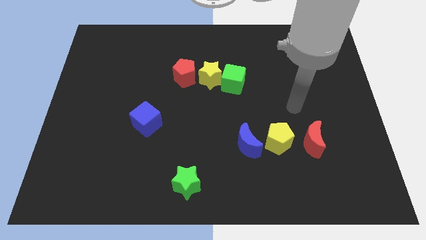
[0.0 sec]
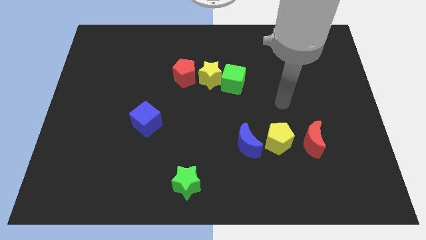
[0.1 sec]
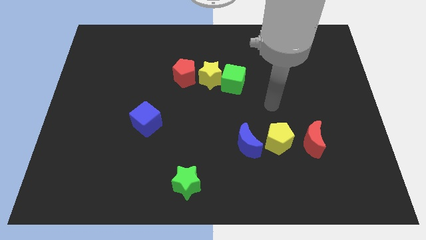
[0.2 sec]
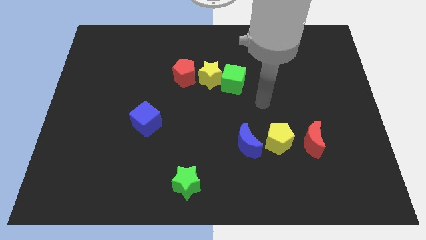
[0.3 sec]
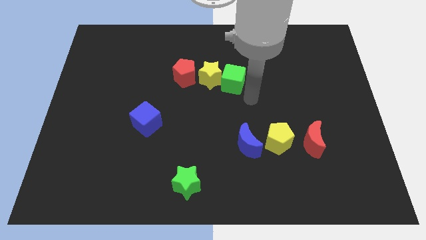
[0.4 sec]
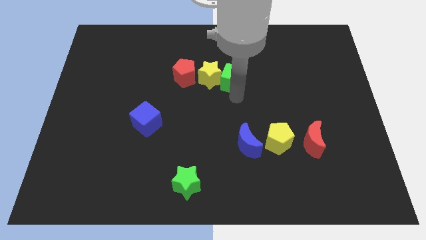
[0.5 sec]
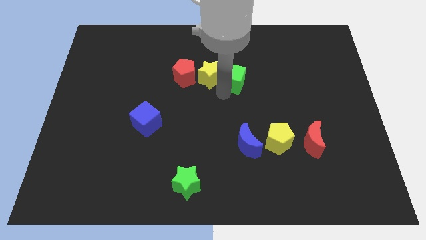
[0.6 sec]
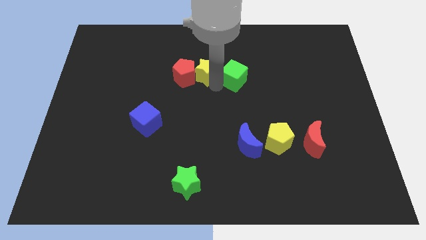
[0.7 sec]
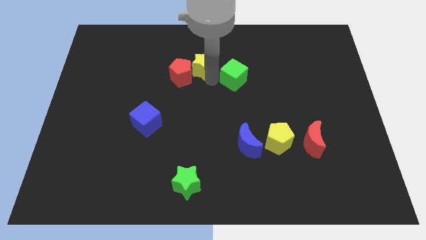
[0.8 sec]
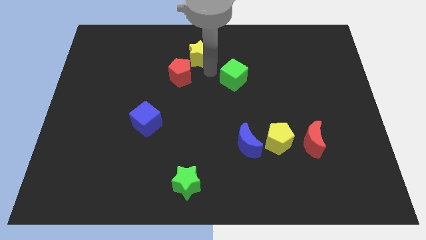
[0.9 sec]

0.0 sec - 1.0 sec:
move the green cube away from the yellow star

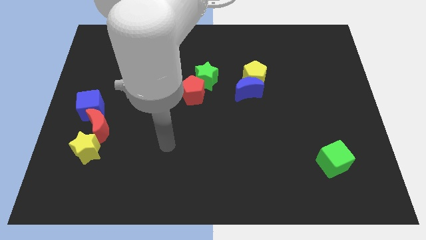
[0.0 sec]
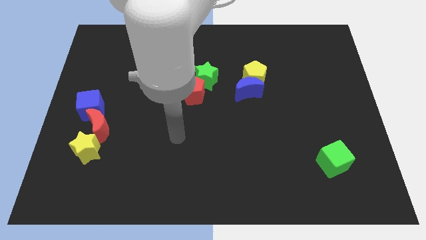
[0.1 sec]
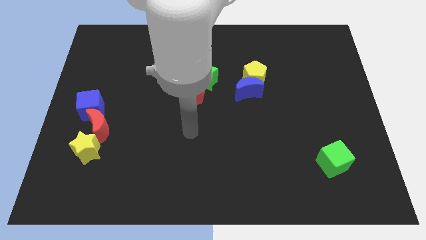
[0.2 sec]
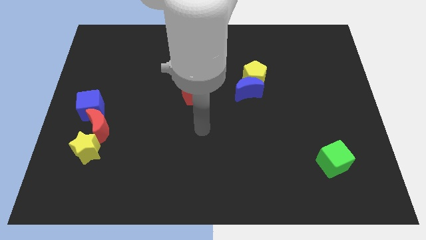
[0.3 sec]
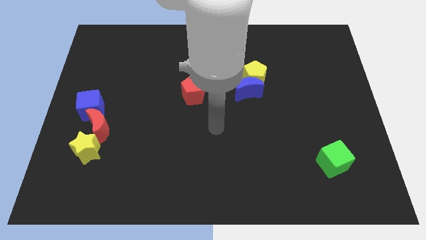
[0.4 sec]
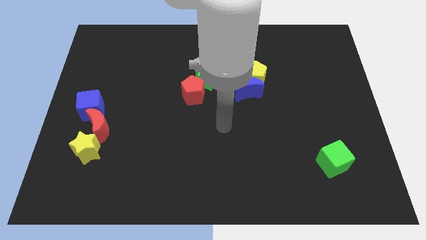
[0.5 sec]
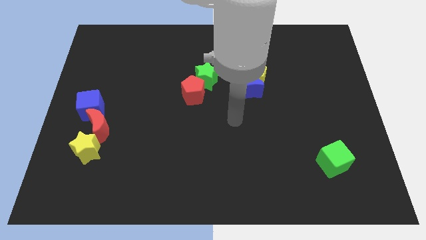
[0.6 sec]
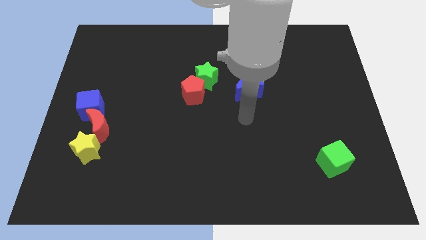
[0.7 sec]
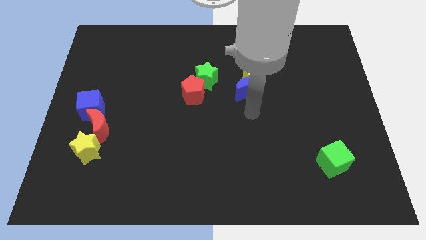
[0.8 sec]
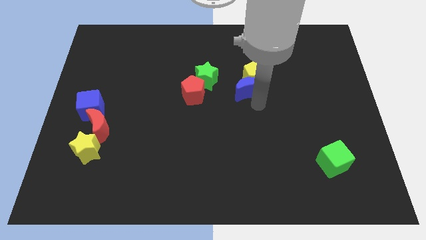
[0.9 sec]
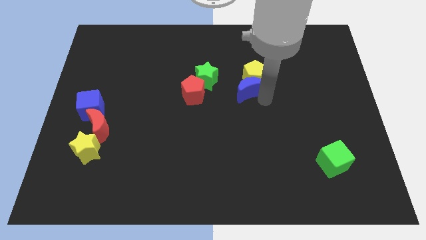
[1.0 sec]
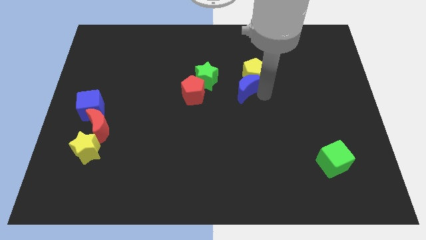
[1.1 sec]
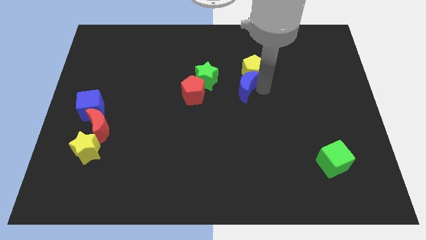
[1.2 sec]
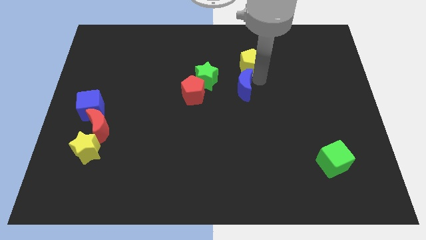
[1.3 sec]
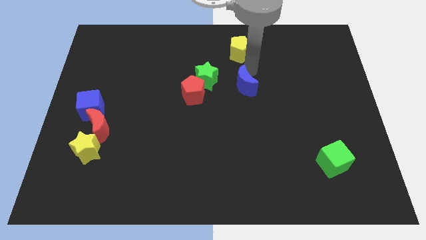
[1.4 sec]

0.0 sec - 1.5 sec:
move the blue moon away from the yellow pentagon

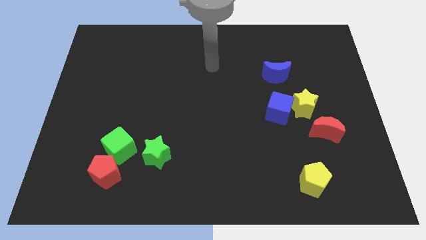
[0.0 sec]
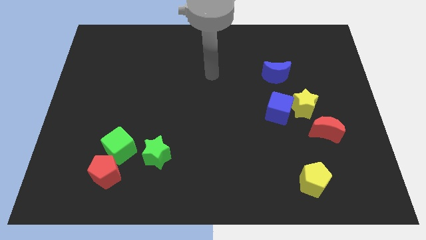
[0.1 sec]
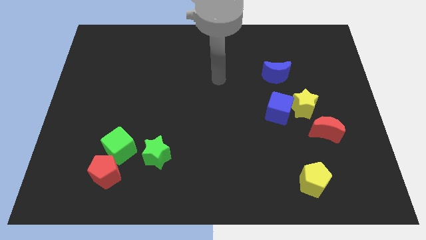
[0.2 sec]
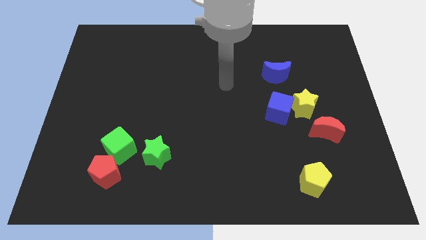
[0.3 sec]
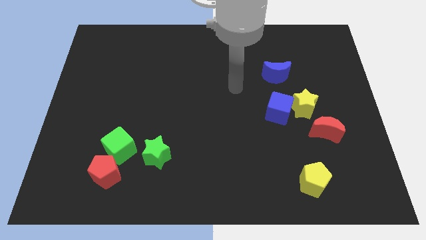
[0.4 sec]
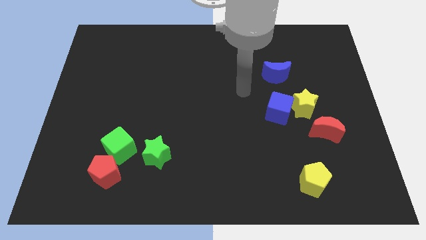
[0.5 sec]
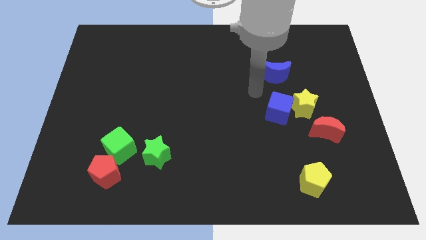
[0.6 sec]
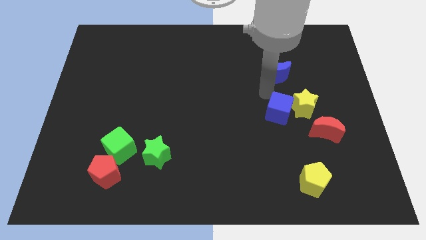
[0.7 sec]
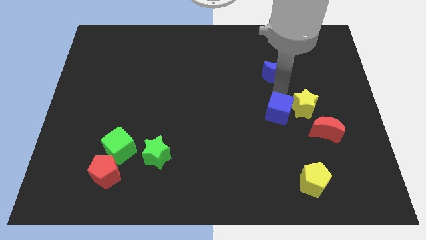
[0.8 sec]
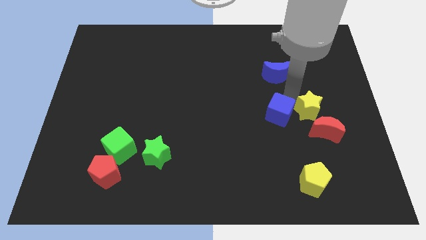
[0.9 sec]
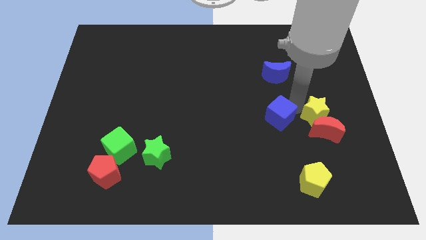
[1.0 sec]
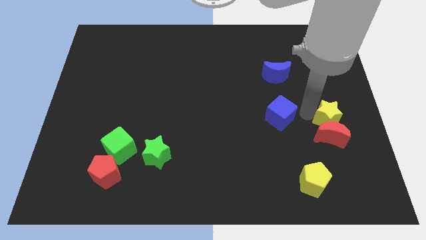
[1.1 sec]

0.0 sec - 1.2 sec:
pull the blue cube apart from the yellow star

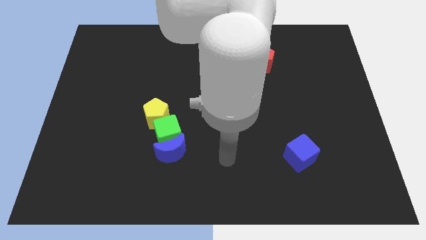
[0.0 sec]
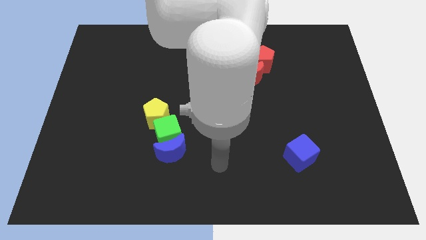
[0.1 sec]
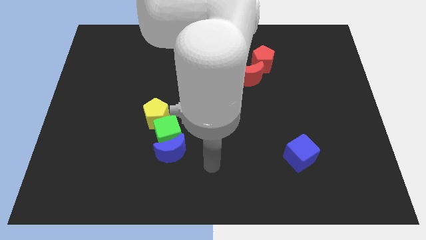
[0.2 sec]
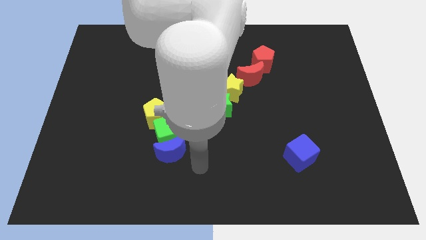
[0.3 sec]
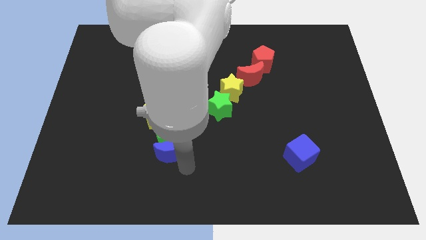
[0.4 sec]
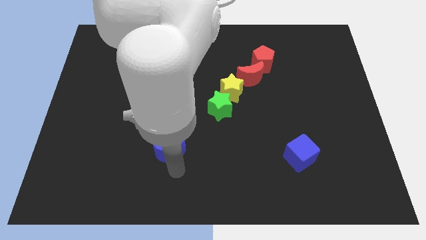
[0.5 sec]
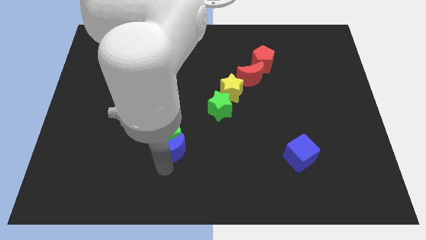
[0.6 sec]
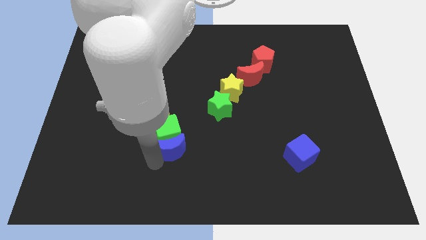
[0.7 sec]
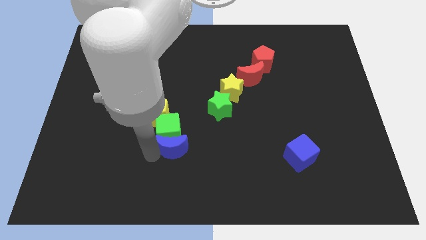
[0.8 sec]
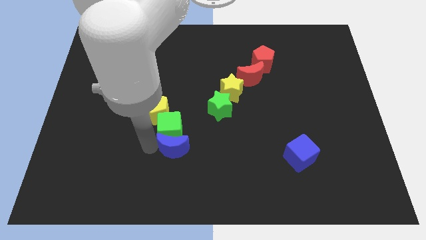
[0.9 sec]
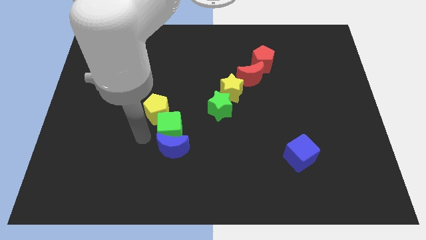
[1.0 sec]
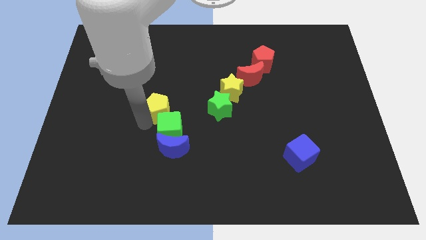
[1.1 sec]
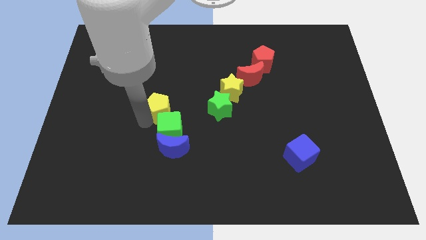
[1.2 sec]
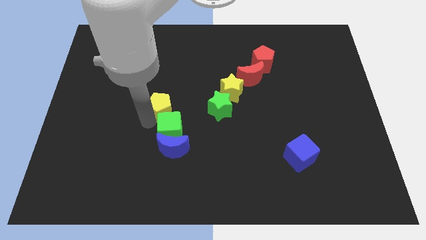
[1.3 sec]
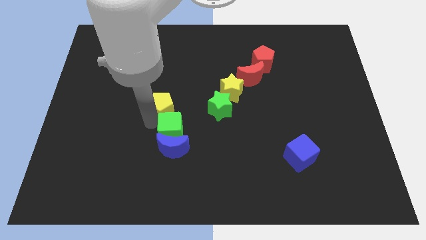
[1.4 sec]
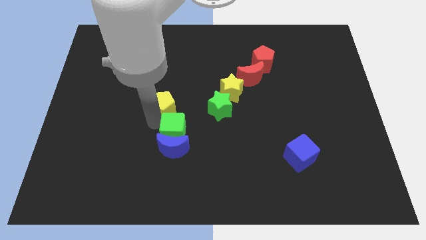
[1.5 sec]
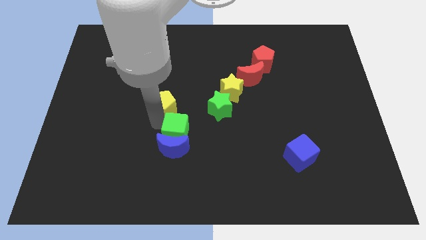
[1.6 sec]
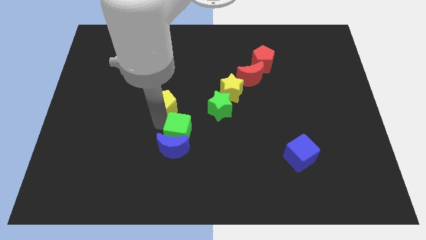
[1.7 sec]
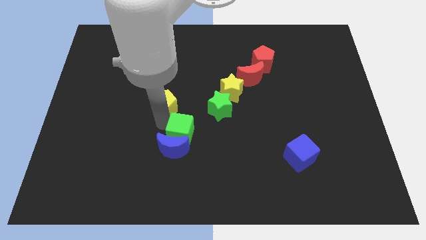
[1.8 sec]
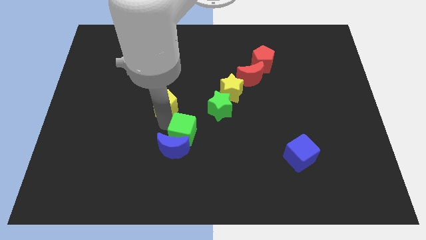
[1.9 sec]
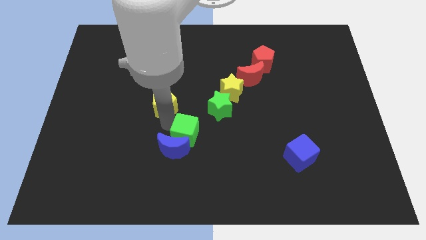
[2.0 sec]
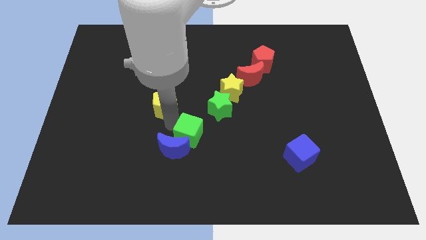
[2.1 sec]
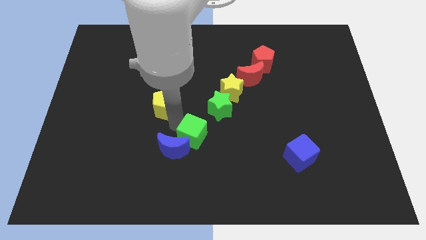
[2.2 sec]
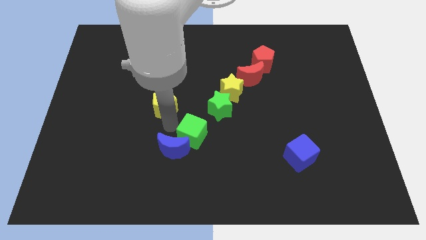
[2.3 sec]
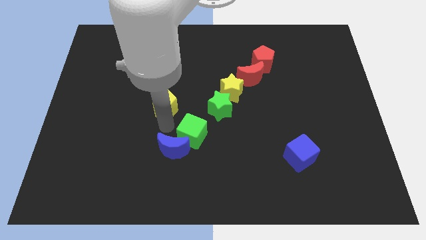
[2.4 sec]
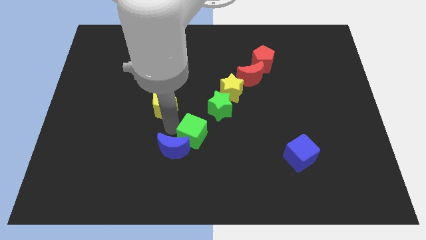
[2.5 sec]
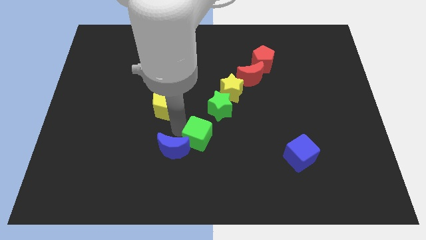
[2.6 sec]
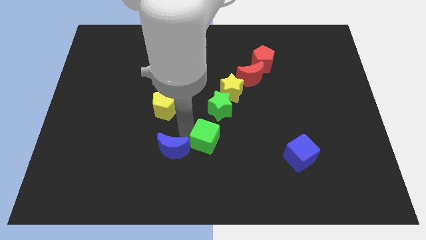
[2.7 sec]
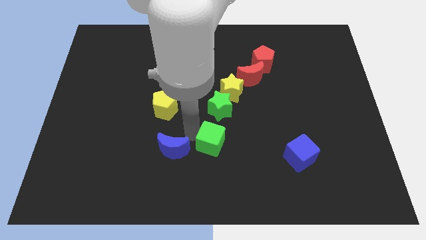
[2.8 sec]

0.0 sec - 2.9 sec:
move the green cube away from the blue moon and yellow pentagon

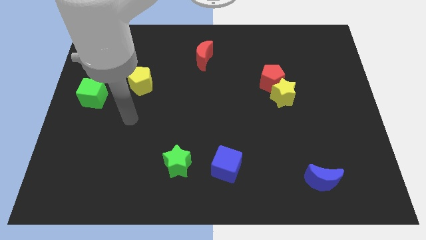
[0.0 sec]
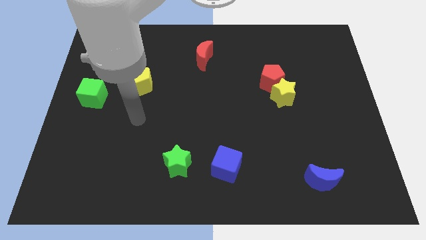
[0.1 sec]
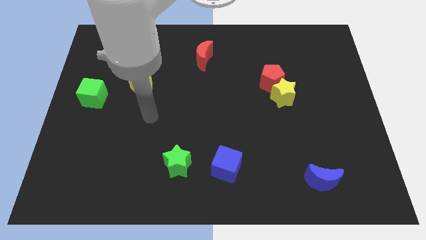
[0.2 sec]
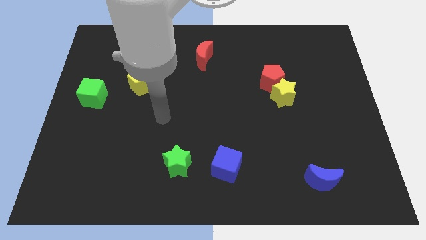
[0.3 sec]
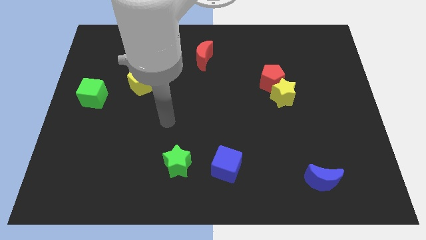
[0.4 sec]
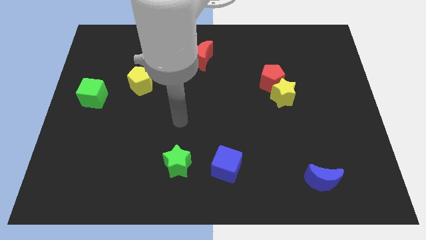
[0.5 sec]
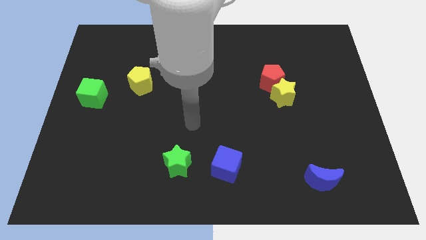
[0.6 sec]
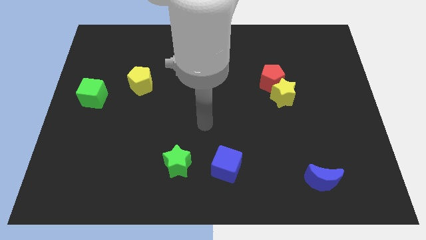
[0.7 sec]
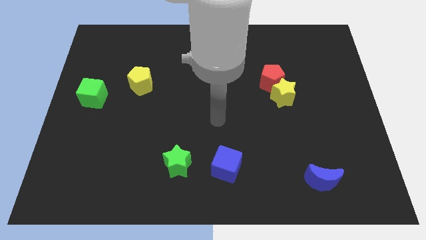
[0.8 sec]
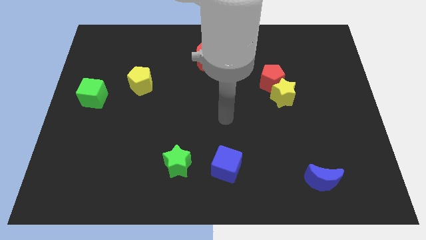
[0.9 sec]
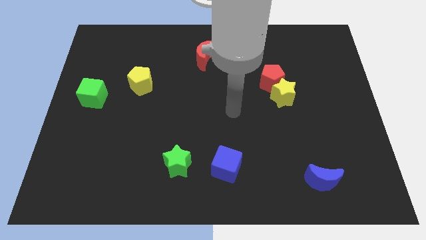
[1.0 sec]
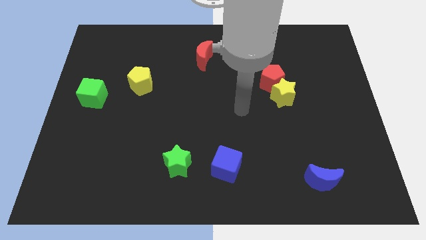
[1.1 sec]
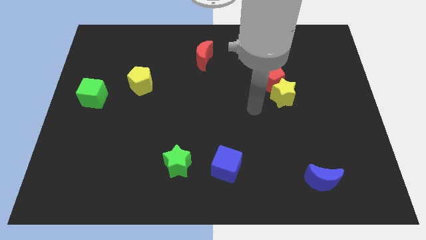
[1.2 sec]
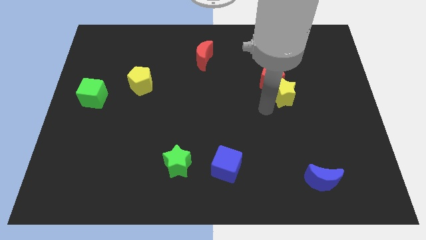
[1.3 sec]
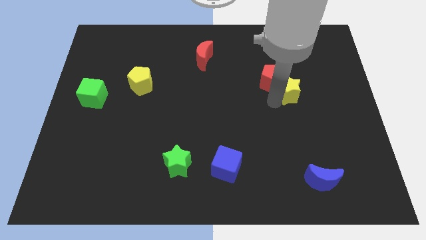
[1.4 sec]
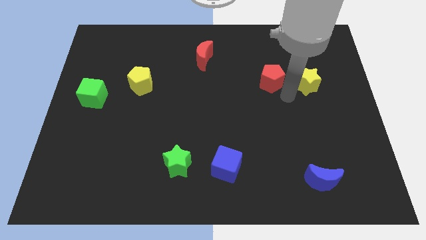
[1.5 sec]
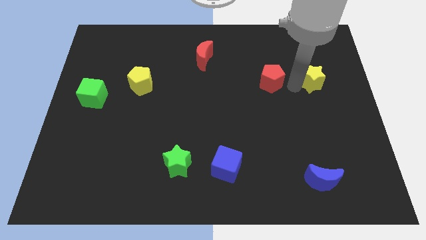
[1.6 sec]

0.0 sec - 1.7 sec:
separate the red pentagon from the yellow star

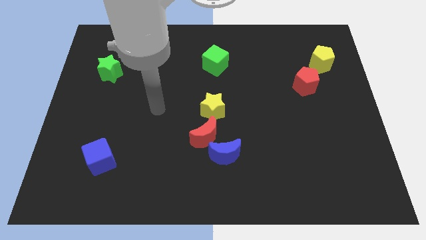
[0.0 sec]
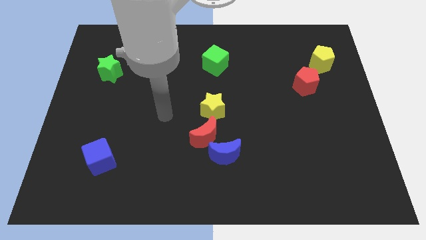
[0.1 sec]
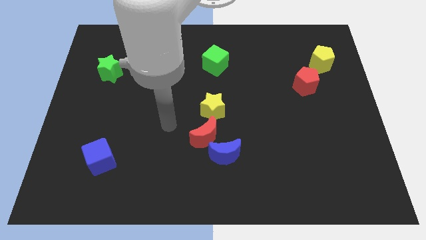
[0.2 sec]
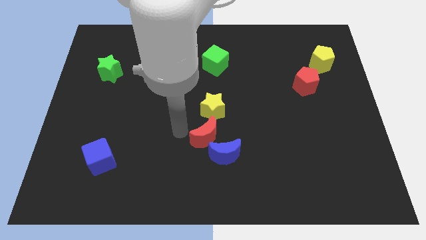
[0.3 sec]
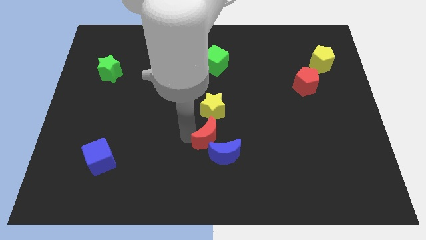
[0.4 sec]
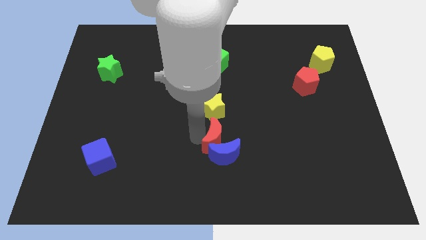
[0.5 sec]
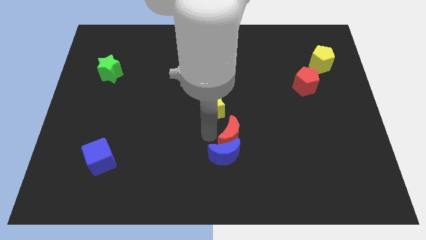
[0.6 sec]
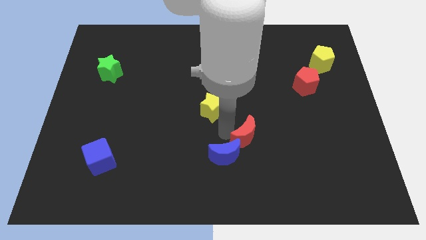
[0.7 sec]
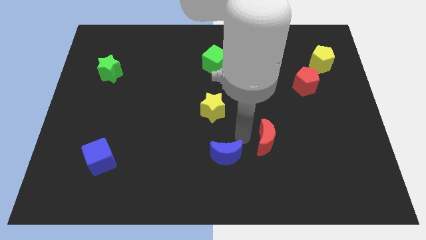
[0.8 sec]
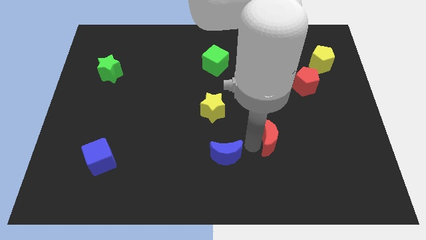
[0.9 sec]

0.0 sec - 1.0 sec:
move the blue moon away from the red moon
